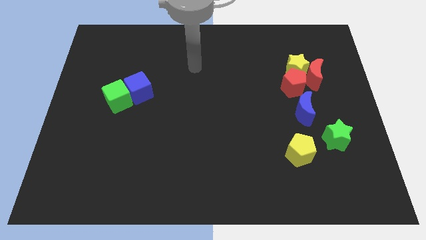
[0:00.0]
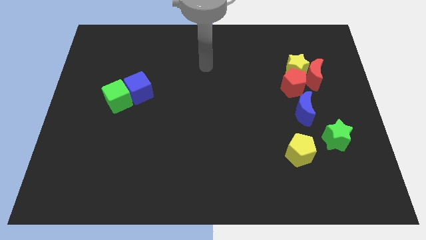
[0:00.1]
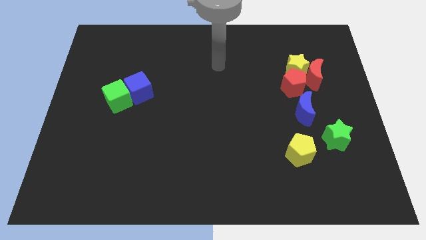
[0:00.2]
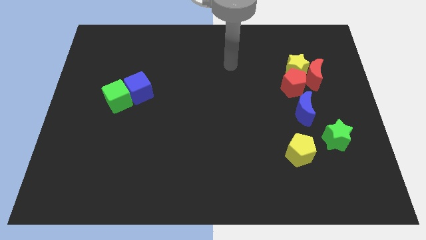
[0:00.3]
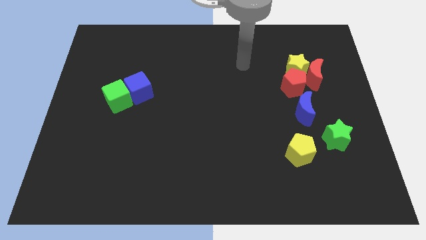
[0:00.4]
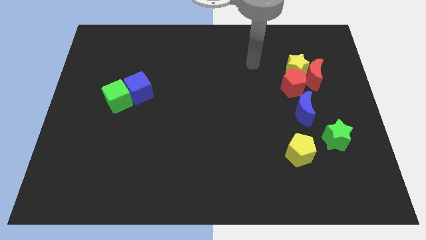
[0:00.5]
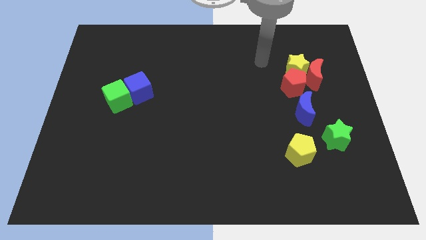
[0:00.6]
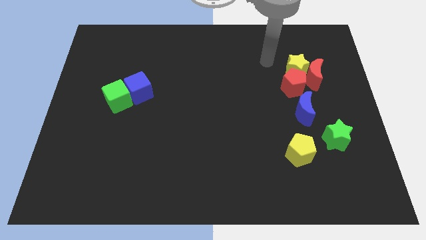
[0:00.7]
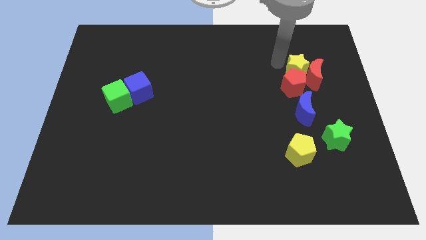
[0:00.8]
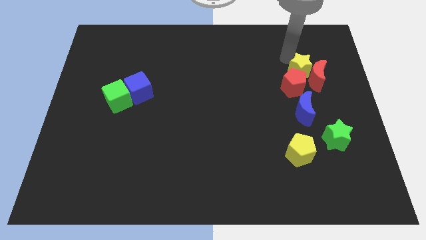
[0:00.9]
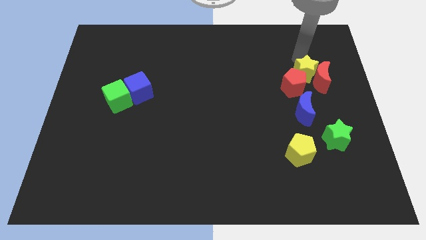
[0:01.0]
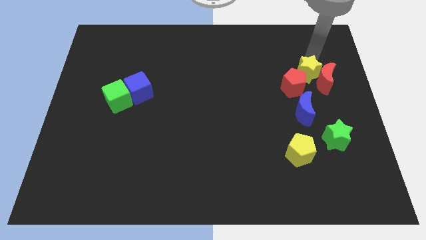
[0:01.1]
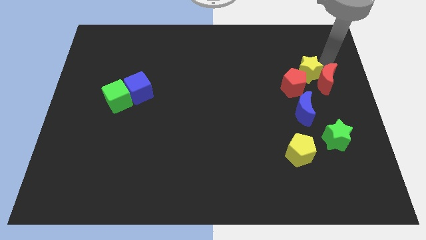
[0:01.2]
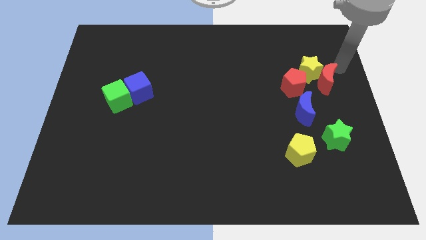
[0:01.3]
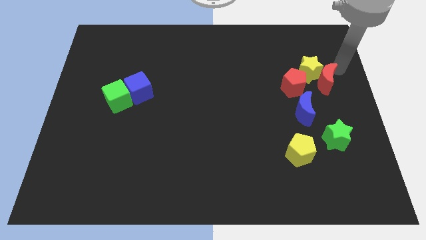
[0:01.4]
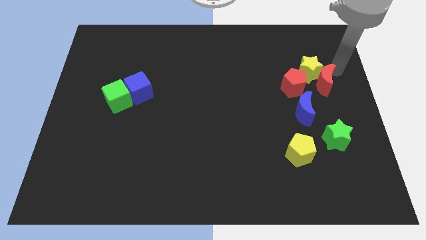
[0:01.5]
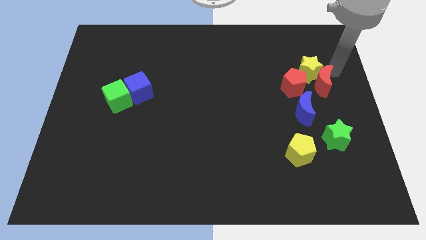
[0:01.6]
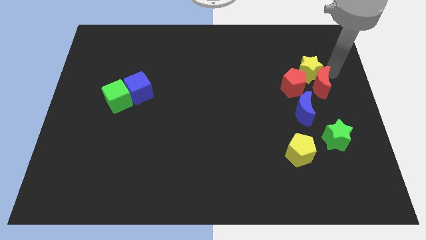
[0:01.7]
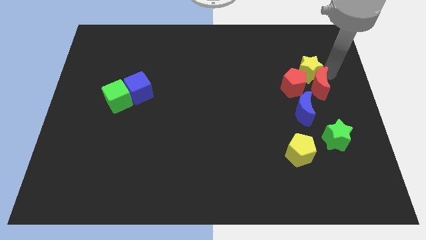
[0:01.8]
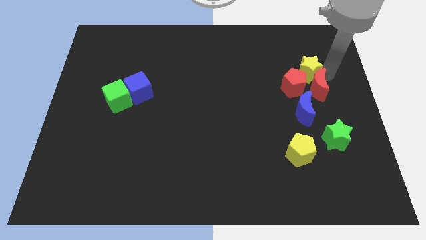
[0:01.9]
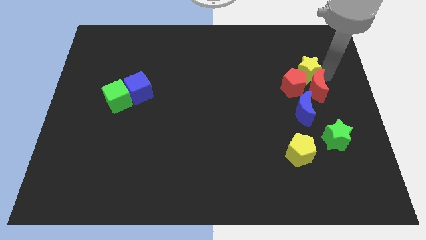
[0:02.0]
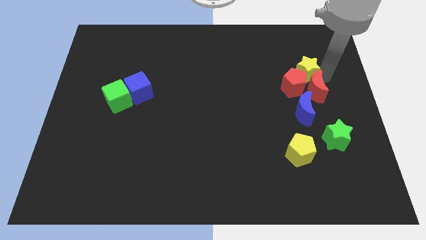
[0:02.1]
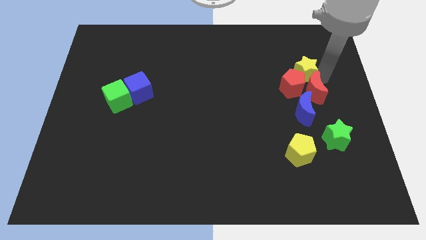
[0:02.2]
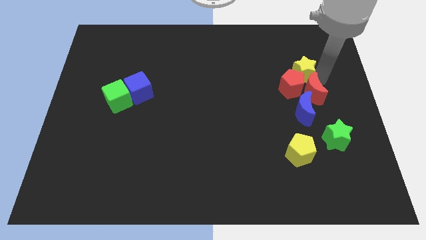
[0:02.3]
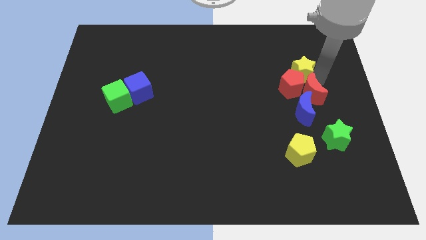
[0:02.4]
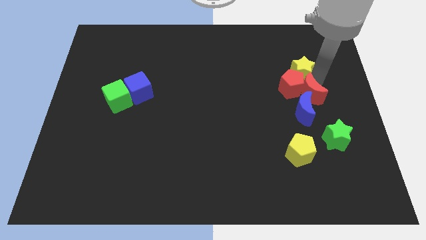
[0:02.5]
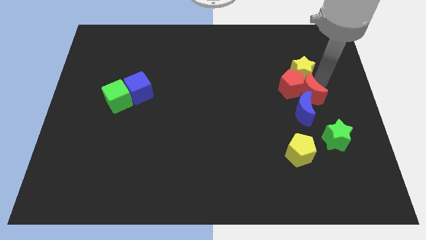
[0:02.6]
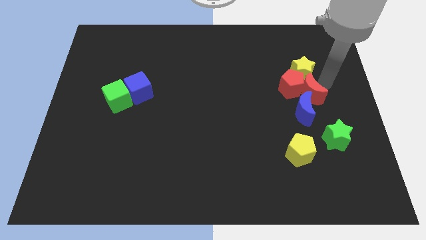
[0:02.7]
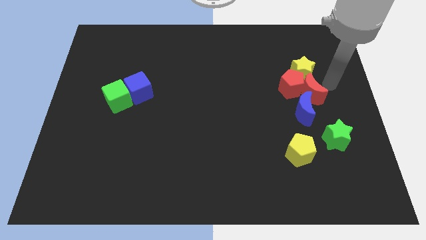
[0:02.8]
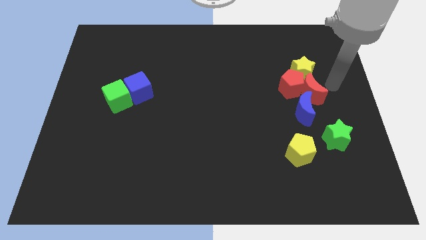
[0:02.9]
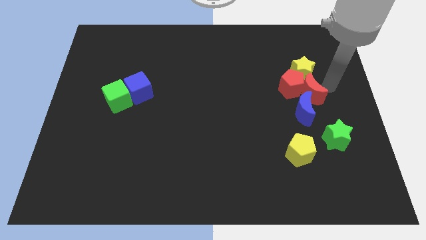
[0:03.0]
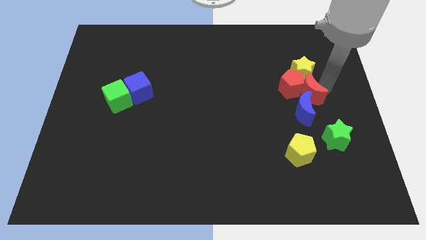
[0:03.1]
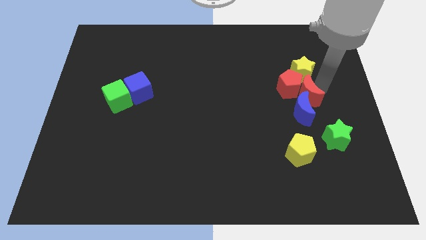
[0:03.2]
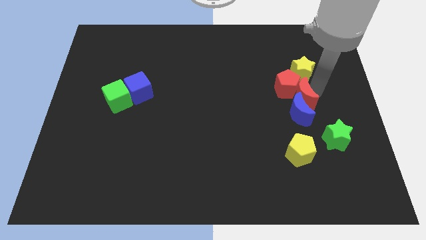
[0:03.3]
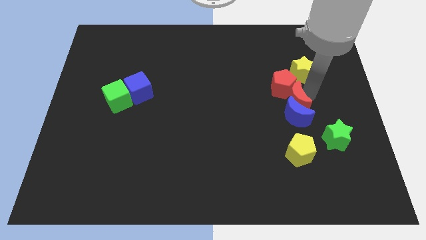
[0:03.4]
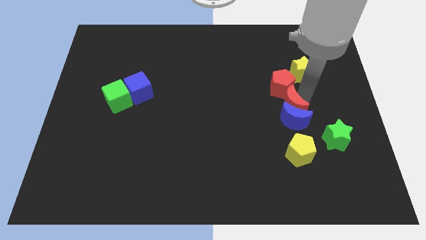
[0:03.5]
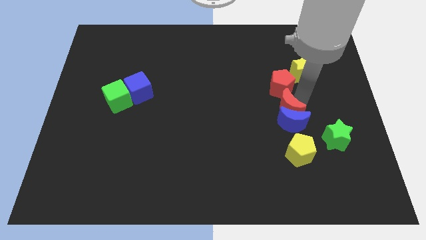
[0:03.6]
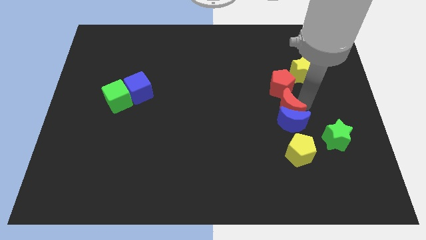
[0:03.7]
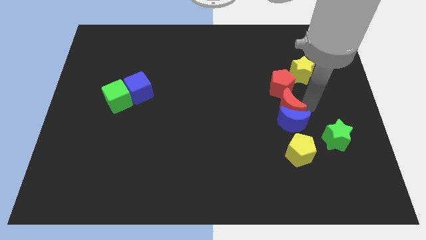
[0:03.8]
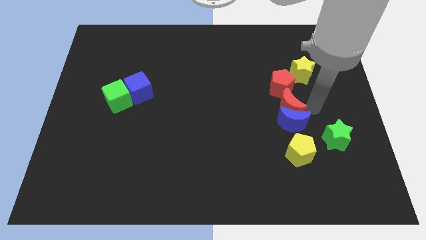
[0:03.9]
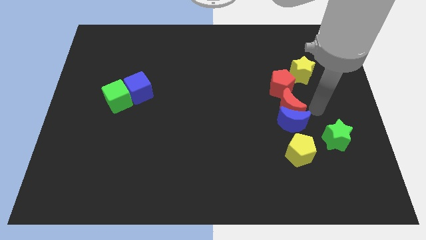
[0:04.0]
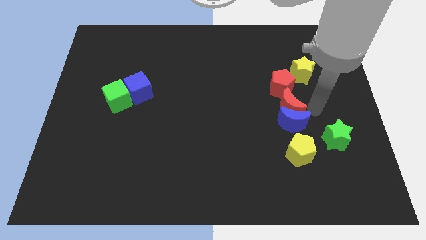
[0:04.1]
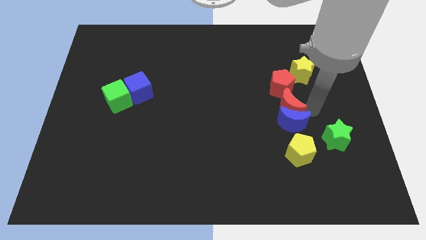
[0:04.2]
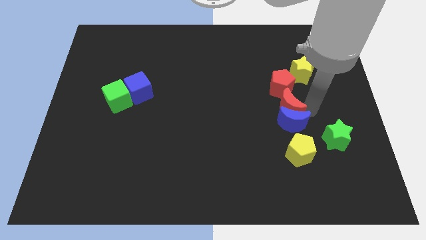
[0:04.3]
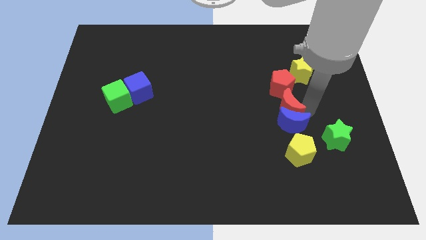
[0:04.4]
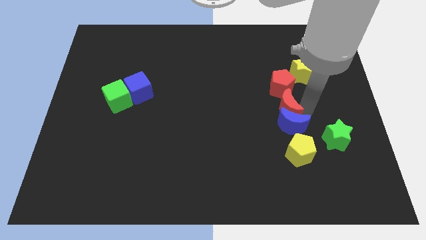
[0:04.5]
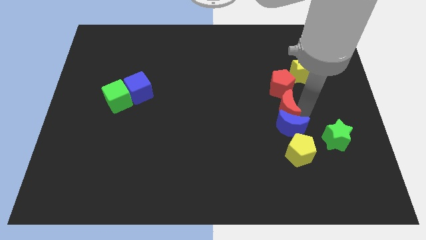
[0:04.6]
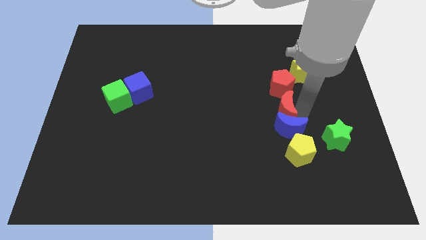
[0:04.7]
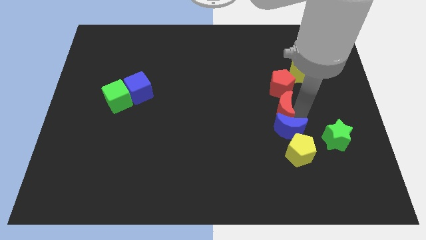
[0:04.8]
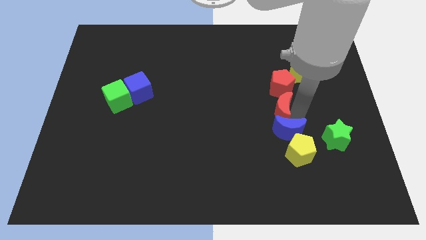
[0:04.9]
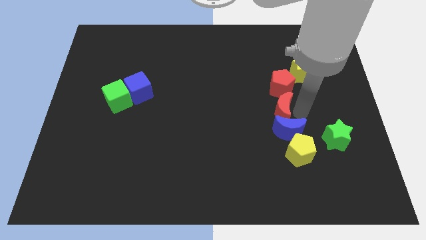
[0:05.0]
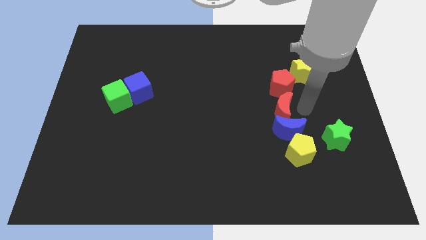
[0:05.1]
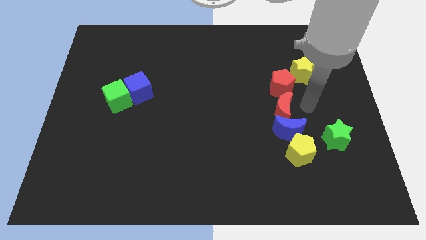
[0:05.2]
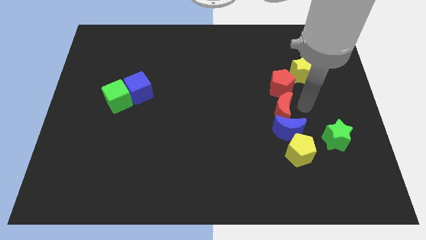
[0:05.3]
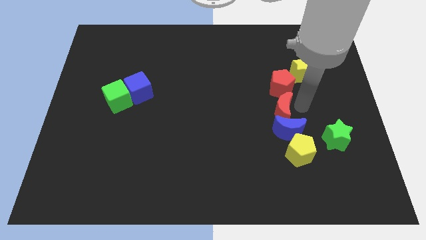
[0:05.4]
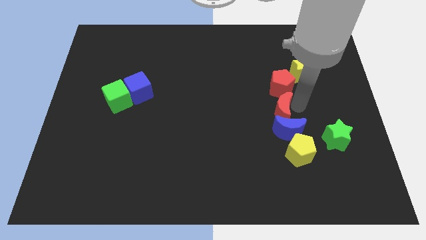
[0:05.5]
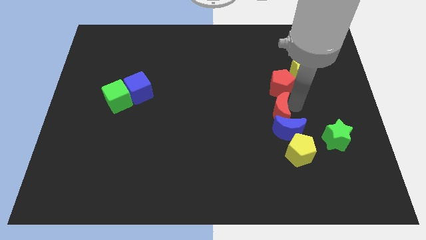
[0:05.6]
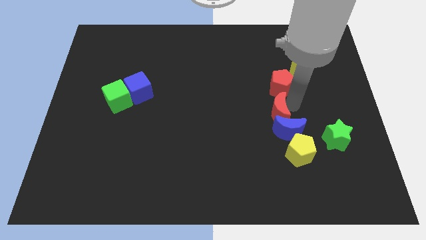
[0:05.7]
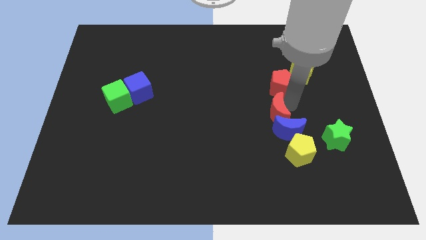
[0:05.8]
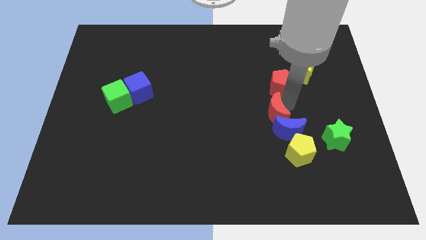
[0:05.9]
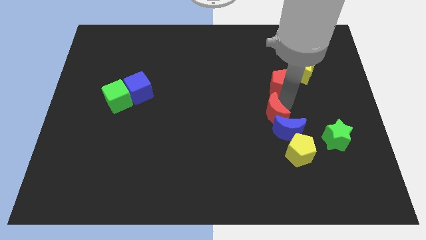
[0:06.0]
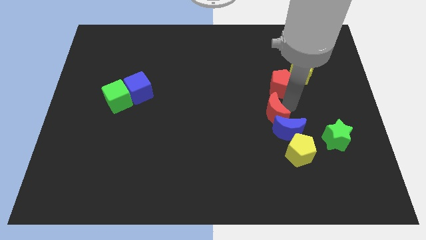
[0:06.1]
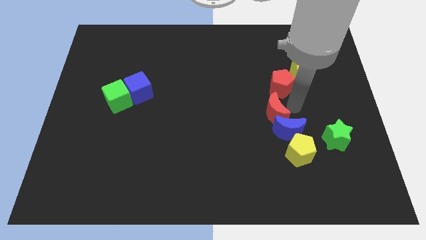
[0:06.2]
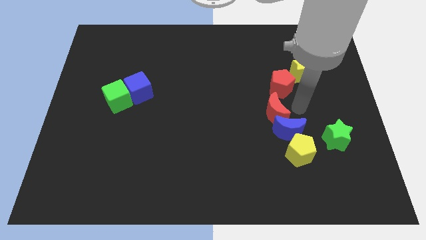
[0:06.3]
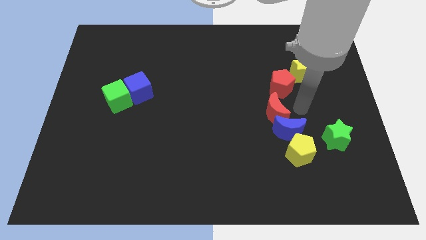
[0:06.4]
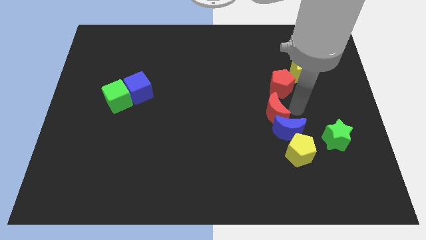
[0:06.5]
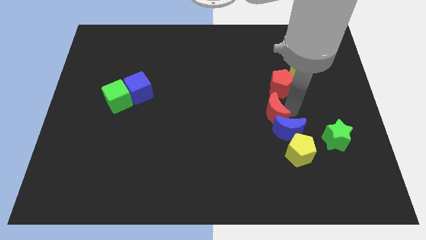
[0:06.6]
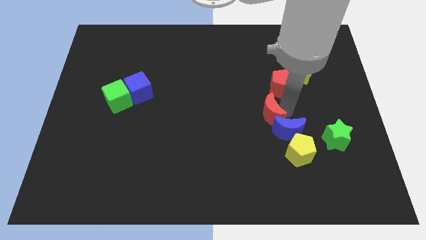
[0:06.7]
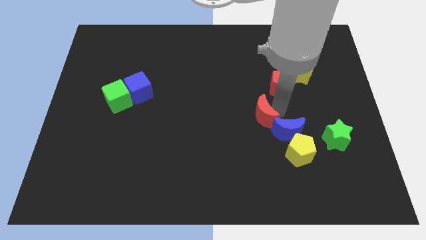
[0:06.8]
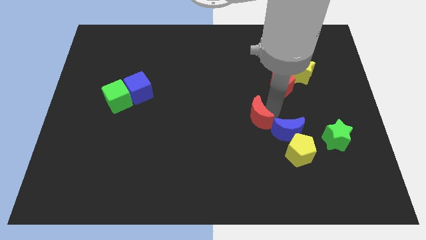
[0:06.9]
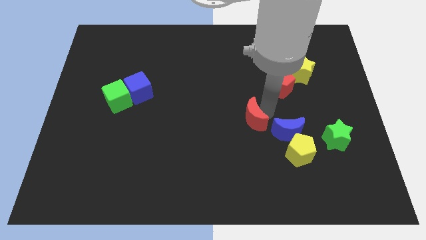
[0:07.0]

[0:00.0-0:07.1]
move the red moon downwards and left diagonally

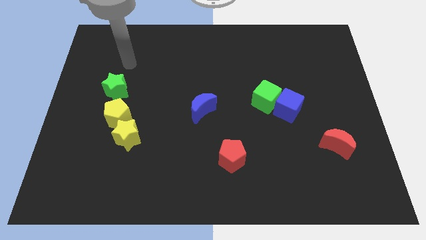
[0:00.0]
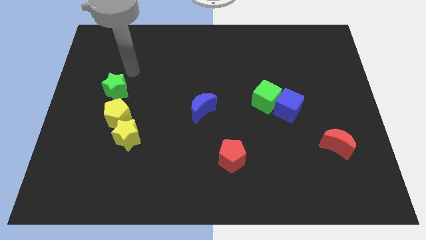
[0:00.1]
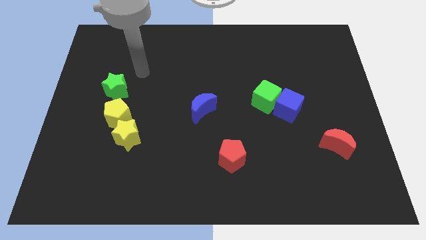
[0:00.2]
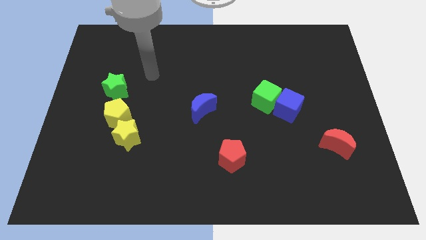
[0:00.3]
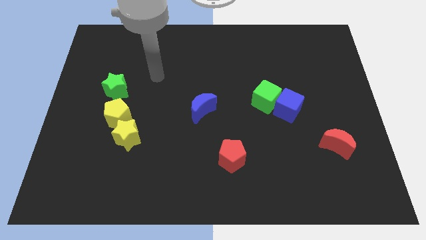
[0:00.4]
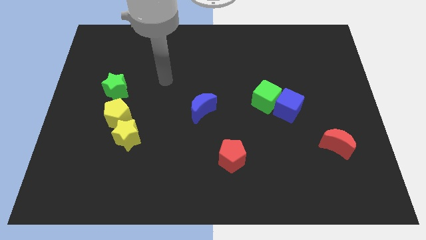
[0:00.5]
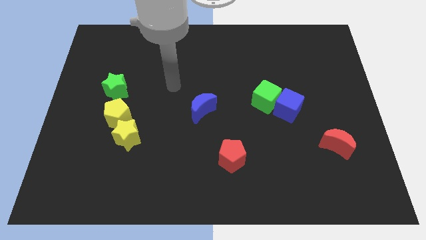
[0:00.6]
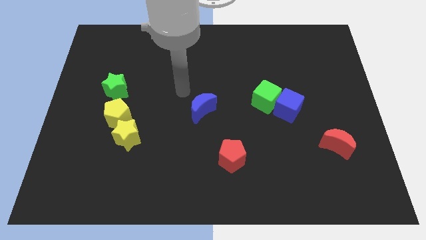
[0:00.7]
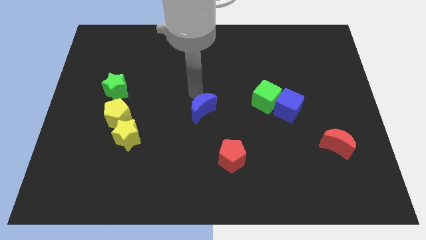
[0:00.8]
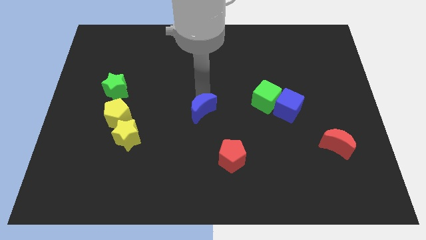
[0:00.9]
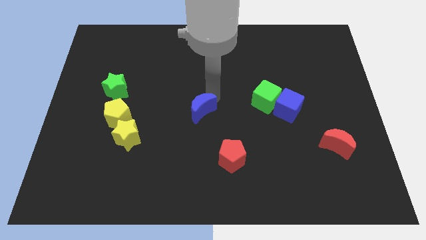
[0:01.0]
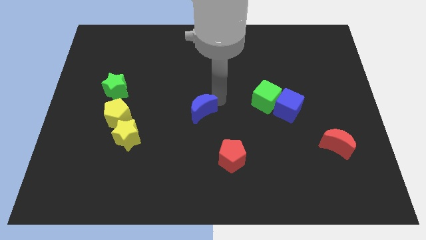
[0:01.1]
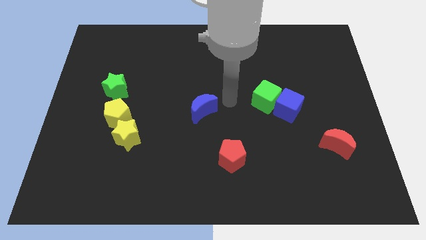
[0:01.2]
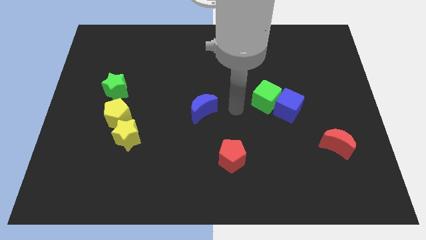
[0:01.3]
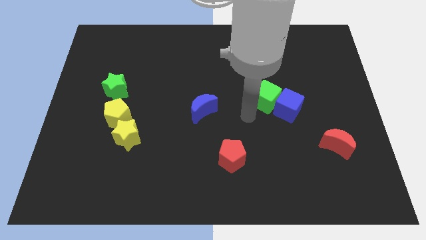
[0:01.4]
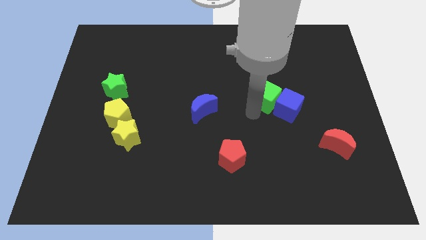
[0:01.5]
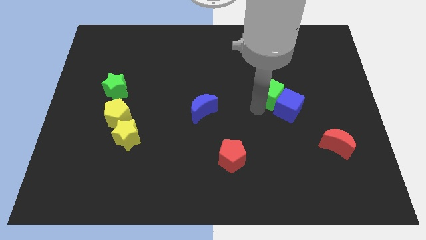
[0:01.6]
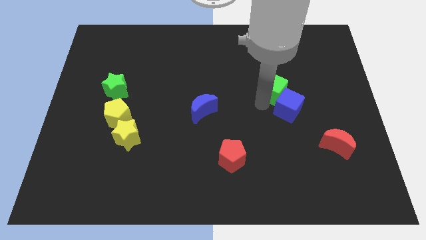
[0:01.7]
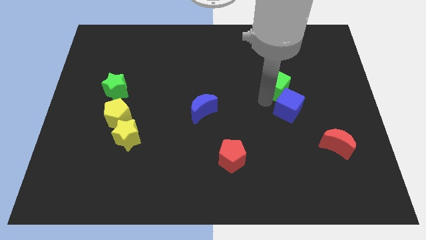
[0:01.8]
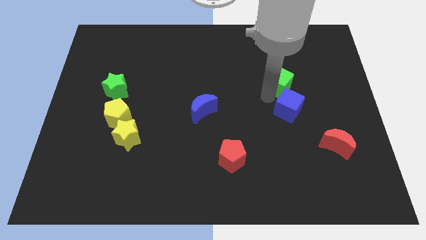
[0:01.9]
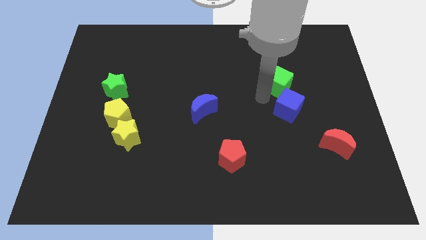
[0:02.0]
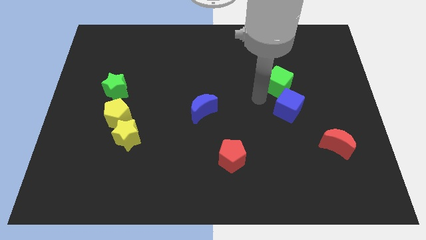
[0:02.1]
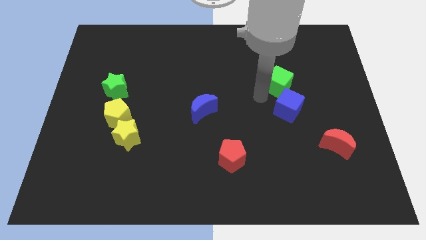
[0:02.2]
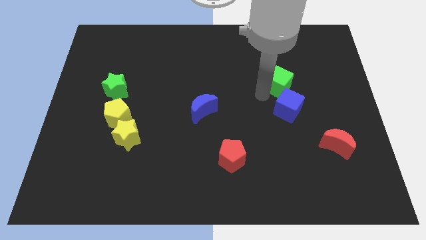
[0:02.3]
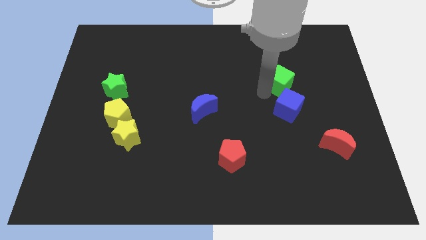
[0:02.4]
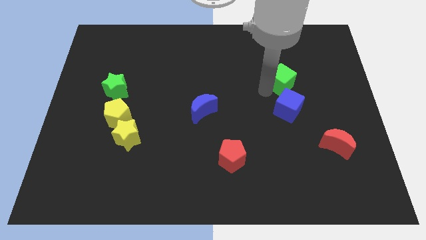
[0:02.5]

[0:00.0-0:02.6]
move the green cube a bit upwards and right diagonally
